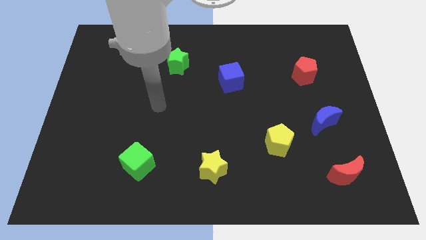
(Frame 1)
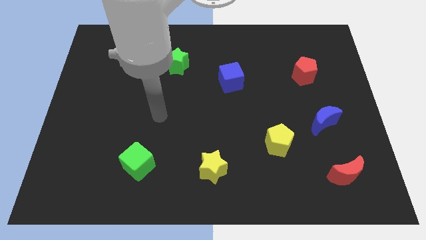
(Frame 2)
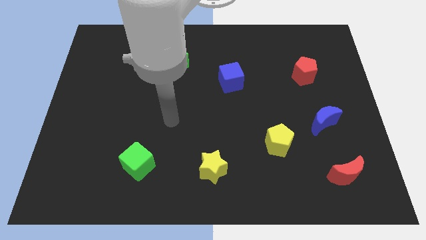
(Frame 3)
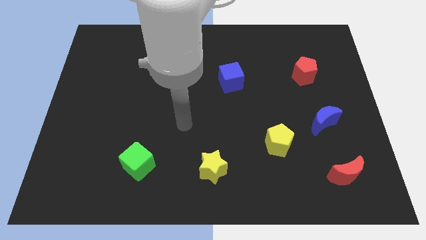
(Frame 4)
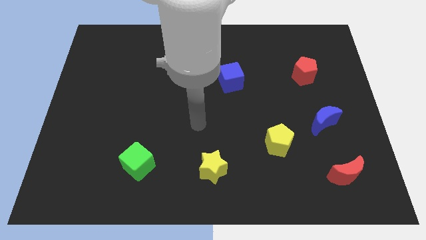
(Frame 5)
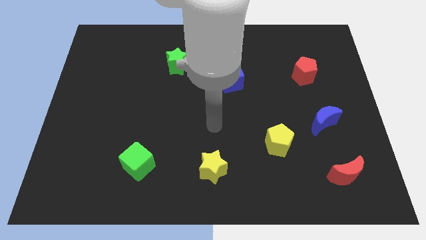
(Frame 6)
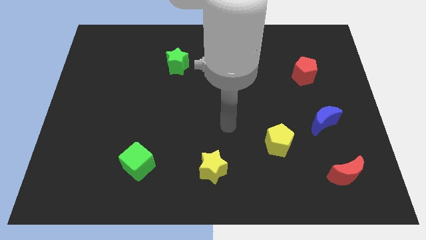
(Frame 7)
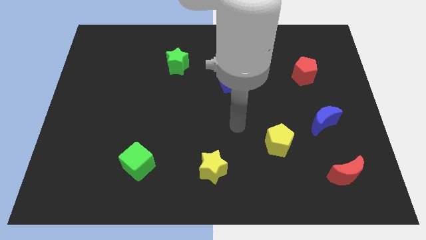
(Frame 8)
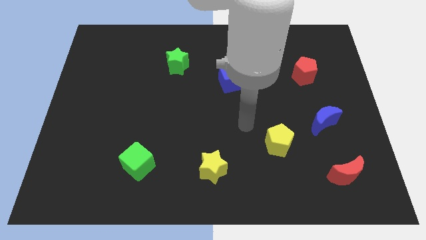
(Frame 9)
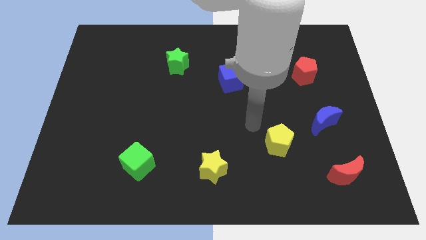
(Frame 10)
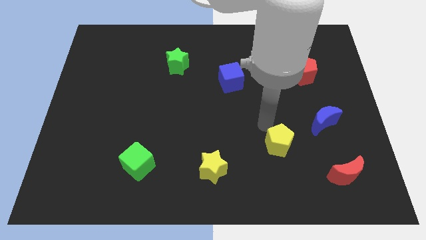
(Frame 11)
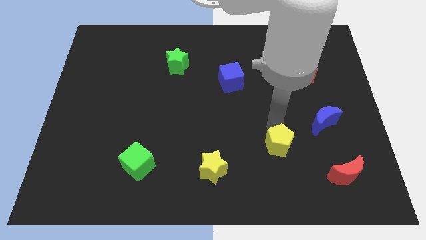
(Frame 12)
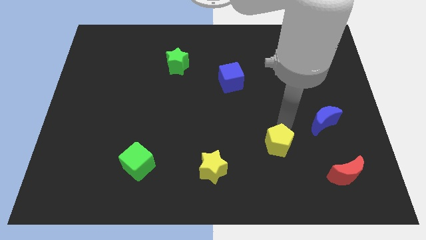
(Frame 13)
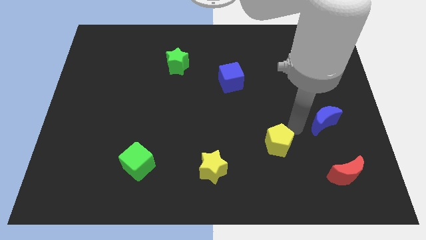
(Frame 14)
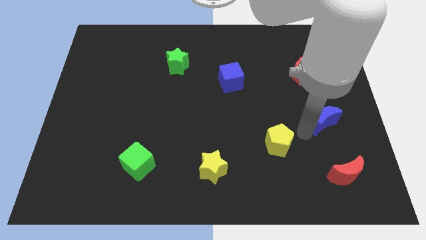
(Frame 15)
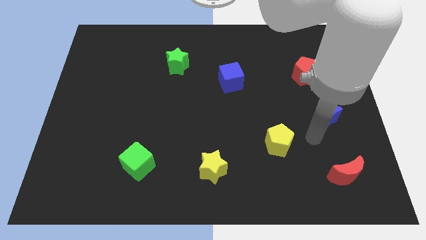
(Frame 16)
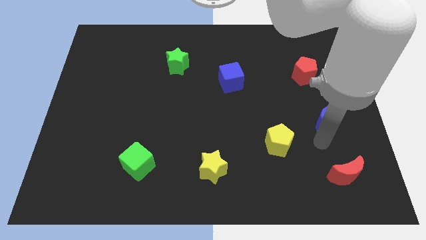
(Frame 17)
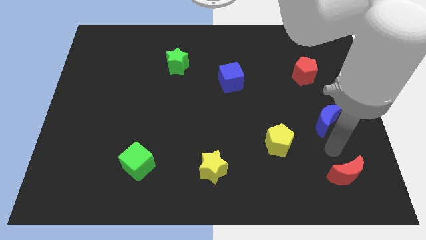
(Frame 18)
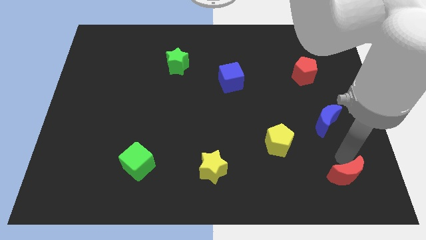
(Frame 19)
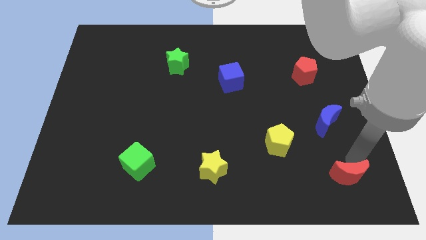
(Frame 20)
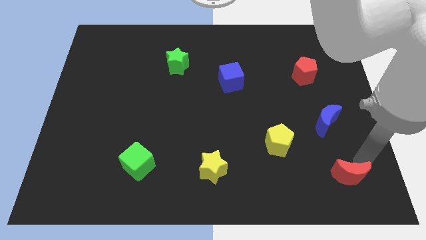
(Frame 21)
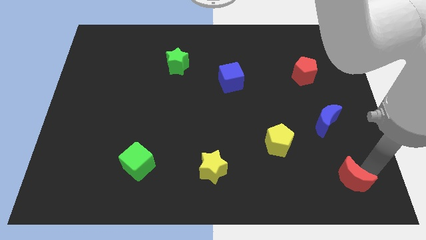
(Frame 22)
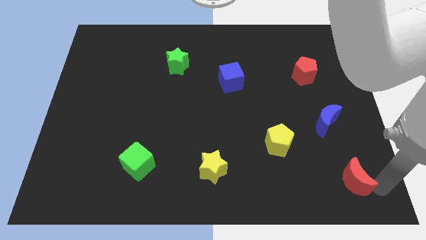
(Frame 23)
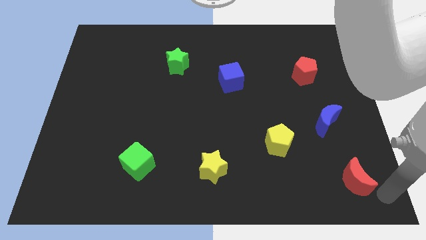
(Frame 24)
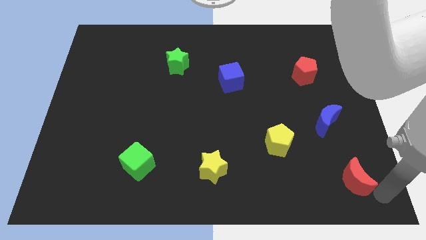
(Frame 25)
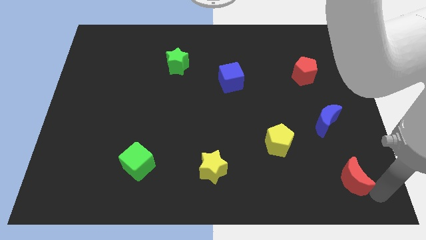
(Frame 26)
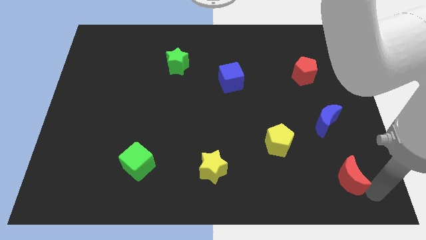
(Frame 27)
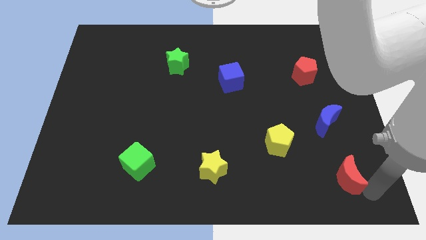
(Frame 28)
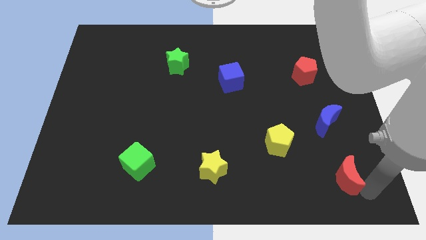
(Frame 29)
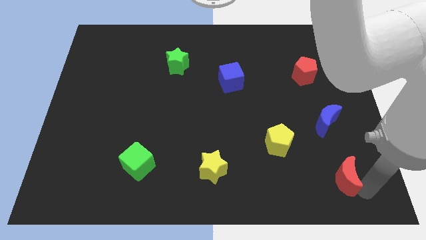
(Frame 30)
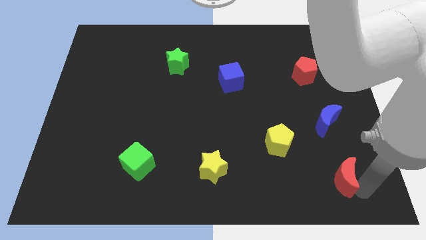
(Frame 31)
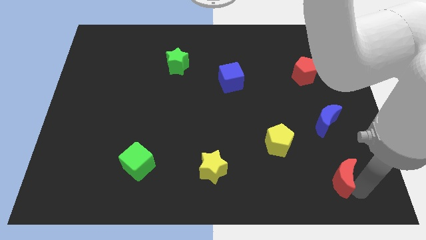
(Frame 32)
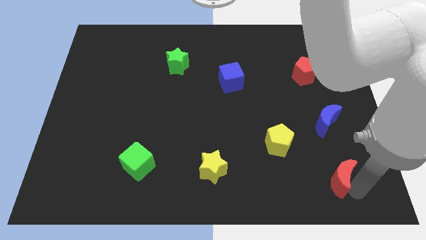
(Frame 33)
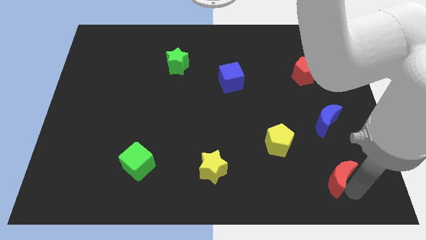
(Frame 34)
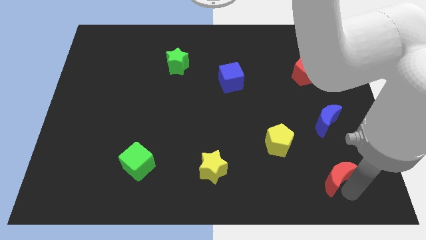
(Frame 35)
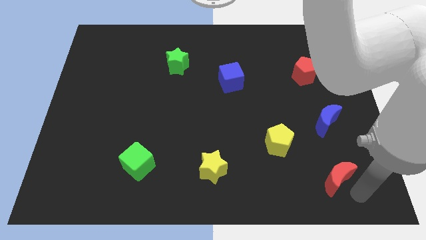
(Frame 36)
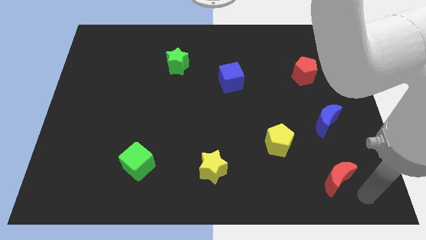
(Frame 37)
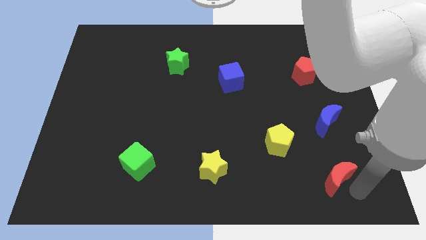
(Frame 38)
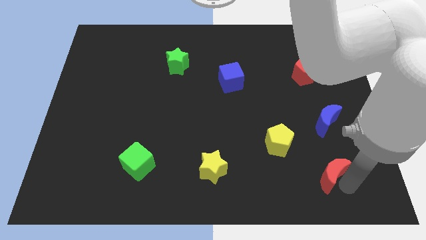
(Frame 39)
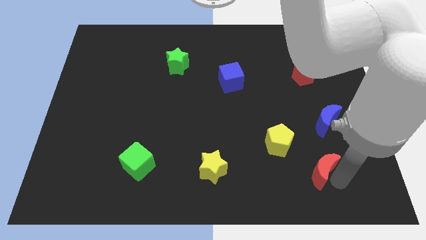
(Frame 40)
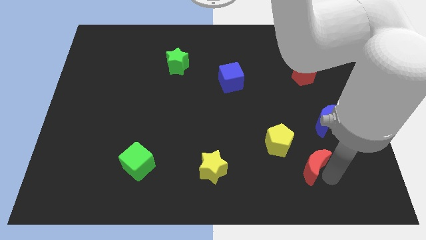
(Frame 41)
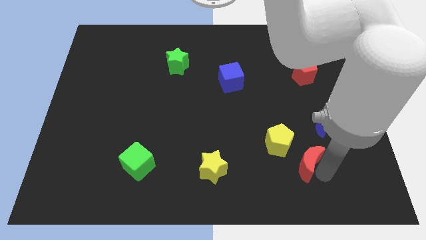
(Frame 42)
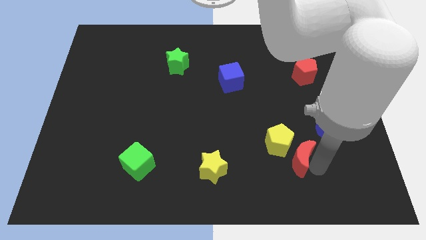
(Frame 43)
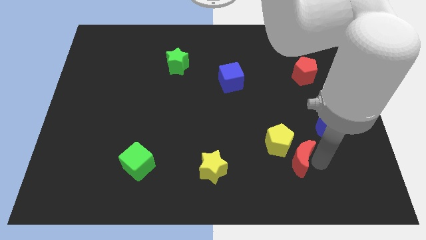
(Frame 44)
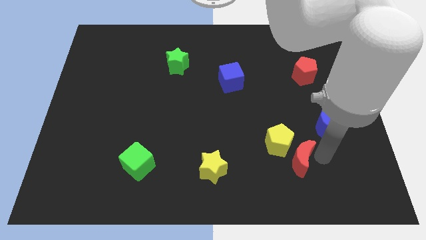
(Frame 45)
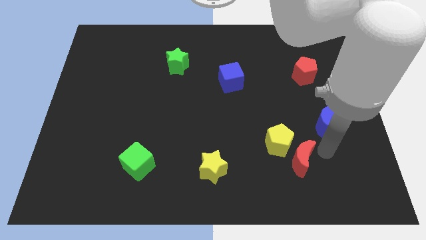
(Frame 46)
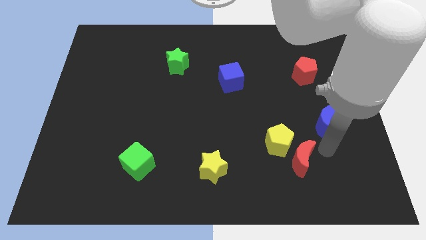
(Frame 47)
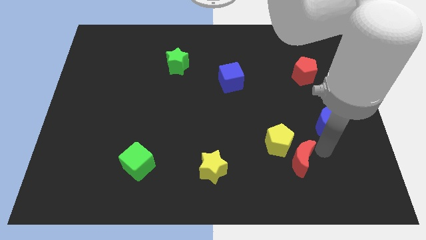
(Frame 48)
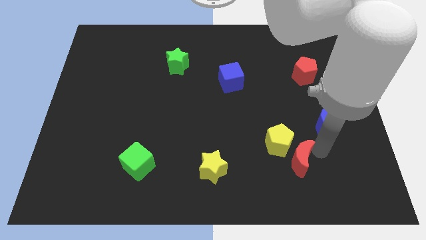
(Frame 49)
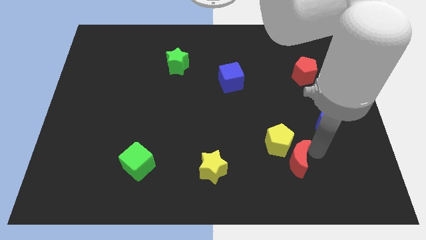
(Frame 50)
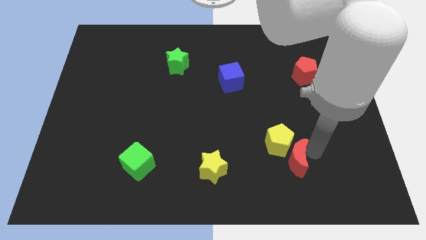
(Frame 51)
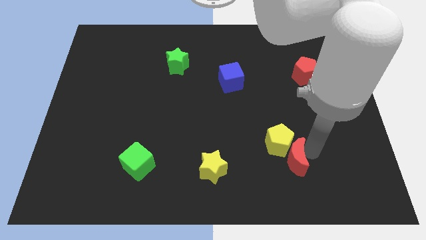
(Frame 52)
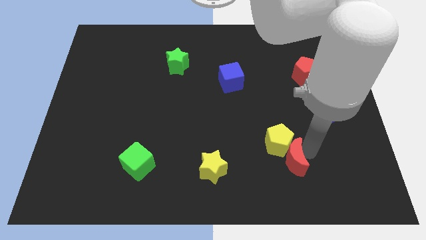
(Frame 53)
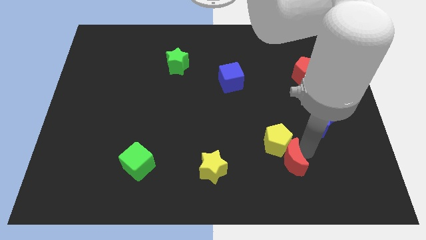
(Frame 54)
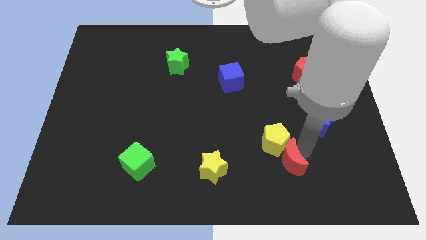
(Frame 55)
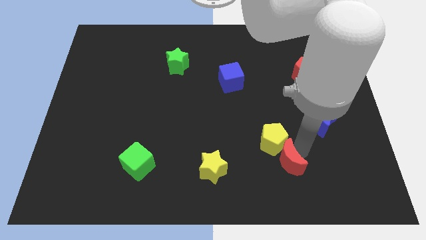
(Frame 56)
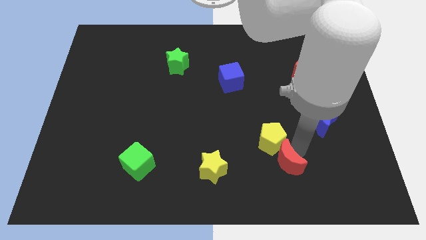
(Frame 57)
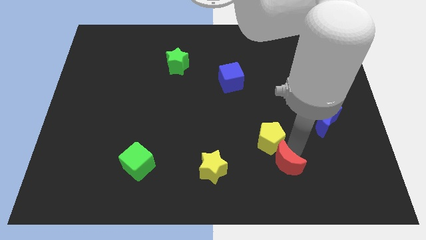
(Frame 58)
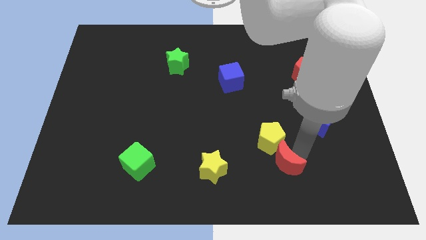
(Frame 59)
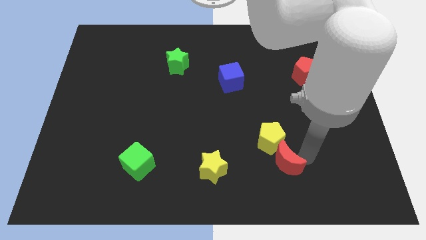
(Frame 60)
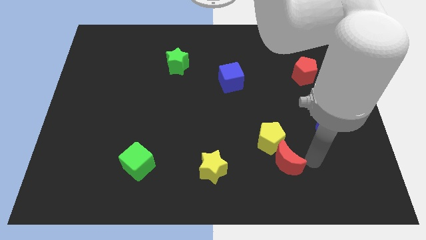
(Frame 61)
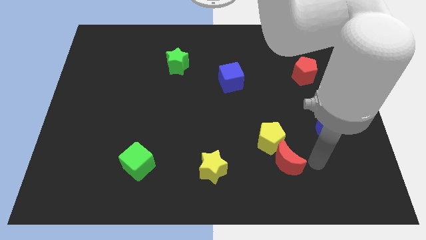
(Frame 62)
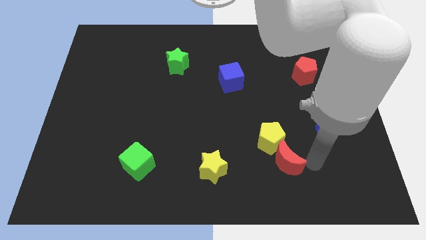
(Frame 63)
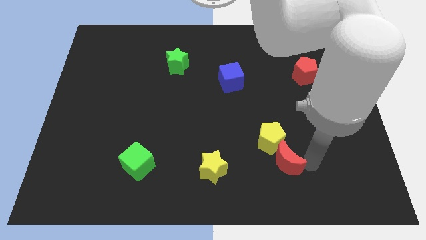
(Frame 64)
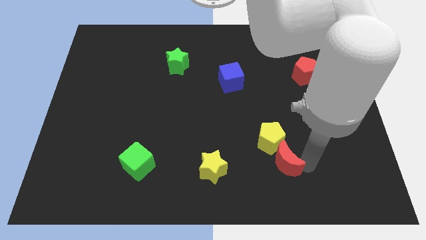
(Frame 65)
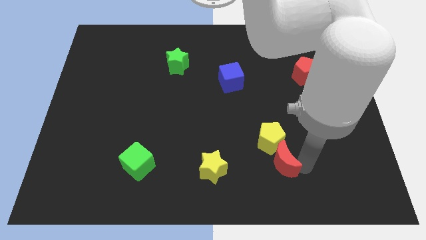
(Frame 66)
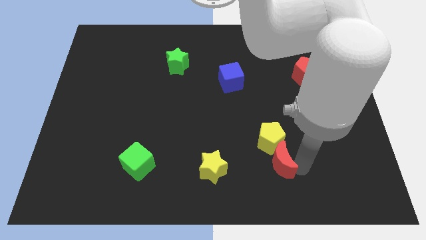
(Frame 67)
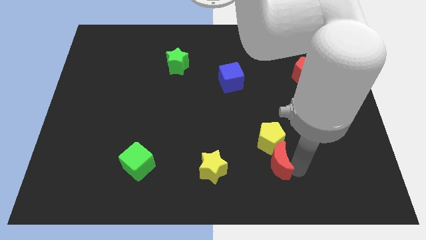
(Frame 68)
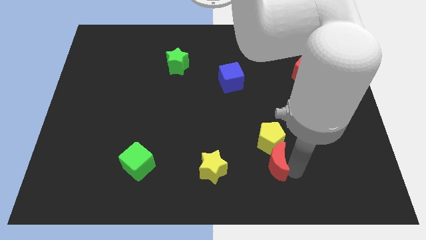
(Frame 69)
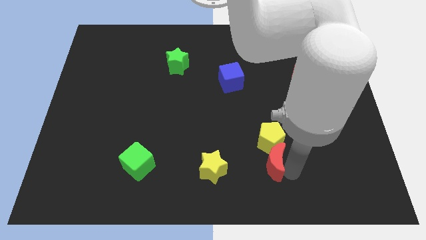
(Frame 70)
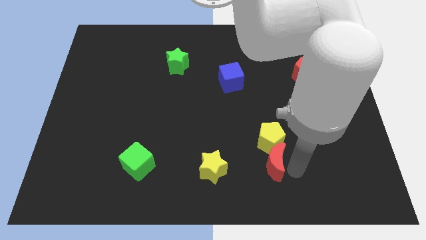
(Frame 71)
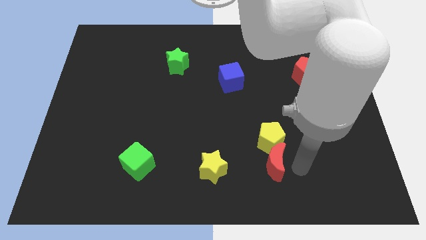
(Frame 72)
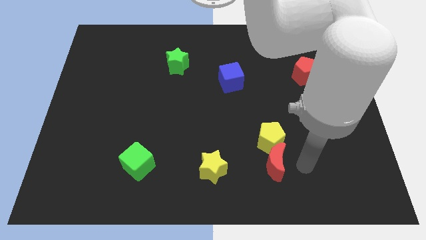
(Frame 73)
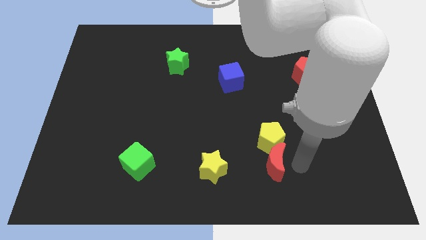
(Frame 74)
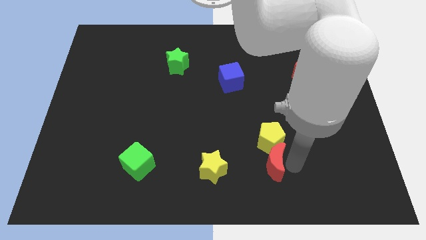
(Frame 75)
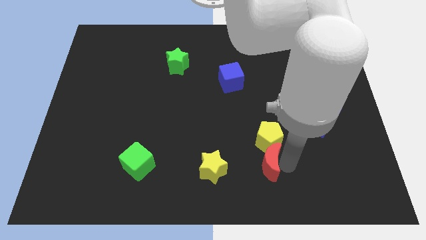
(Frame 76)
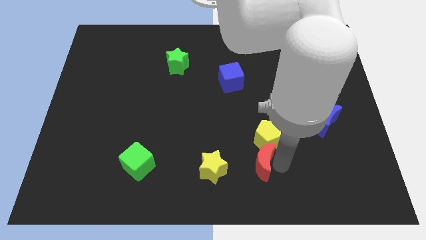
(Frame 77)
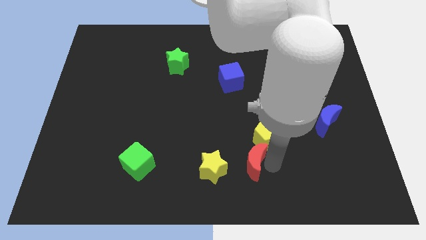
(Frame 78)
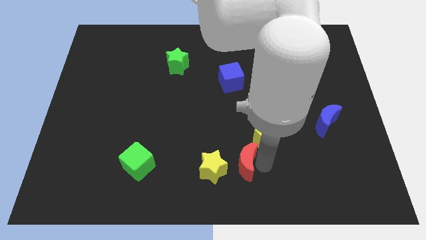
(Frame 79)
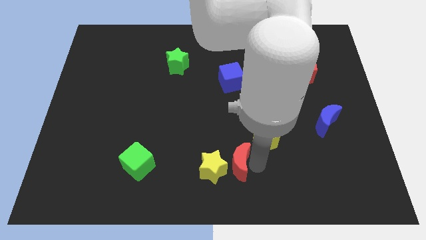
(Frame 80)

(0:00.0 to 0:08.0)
push the red moon next to the yellow star
